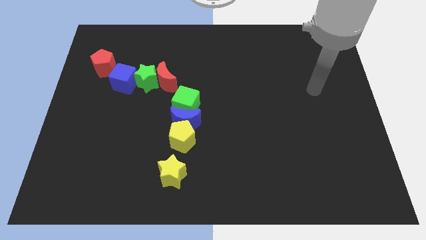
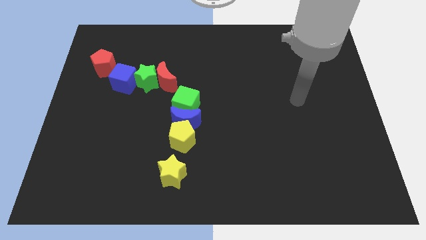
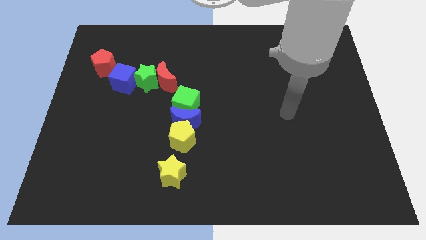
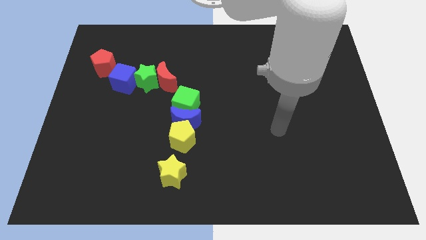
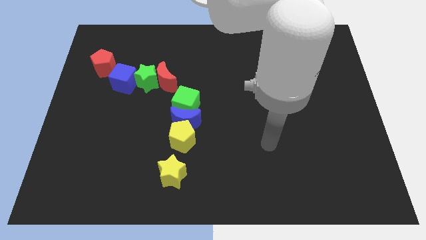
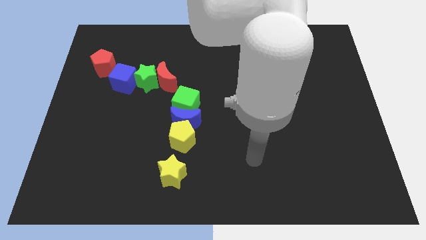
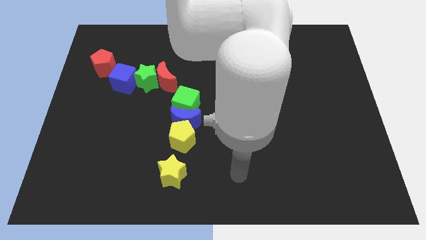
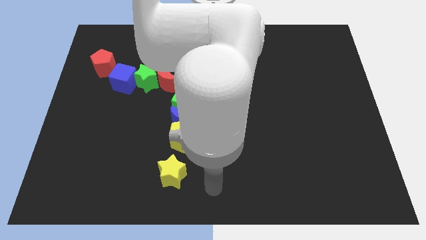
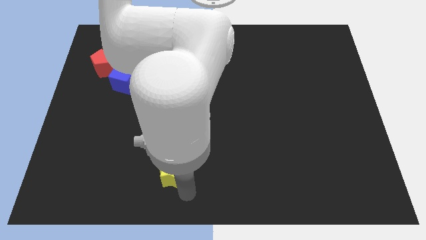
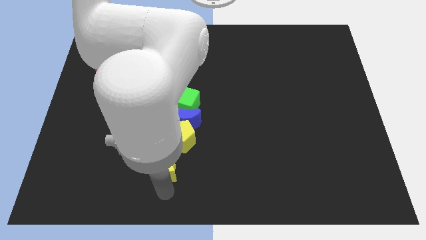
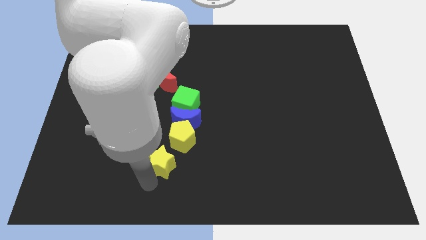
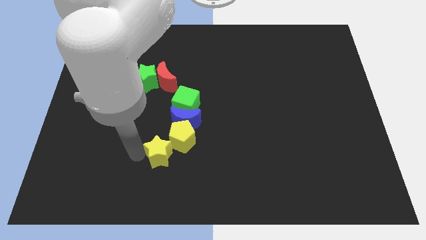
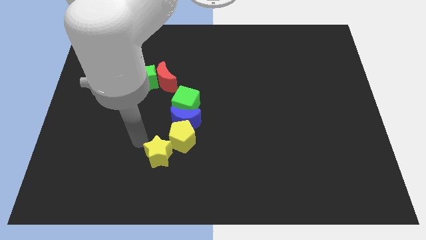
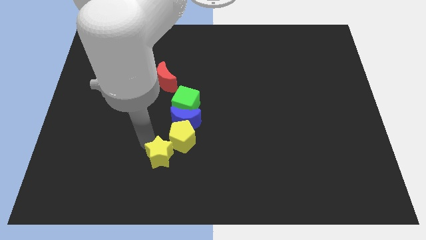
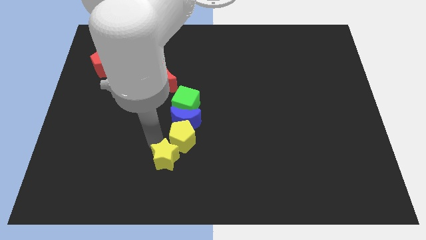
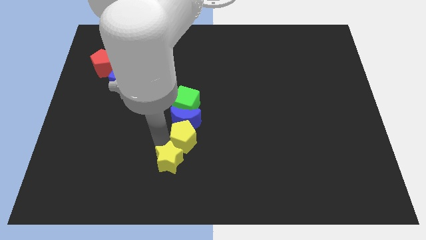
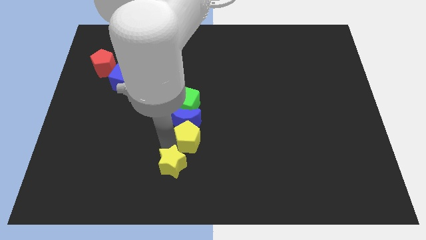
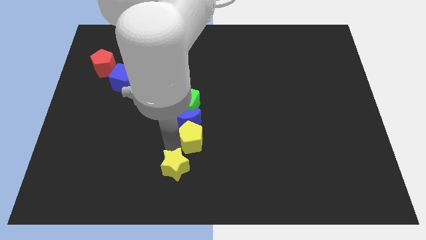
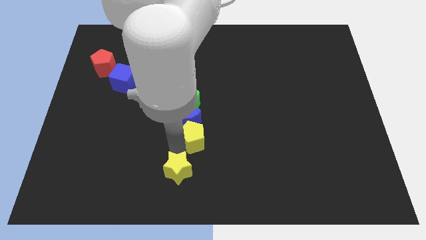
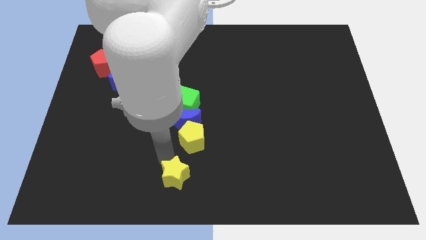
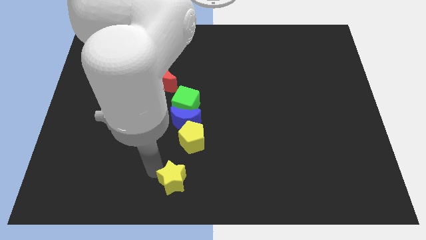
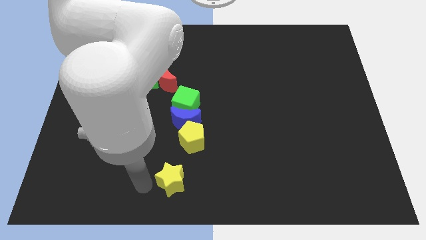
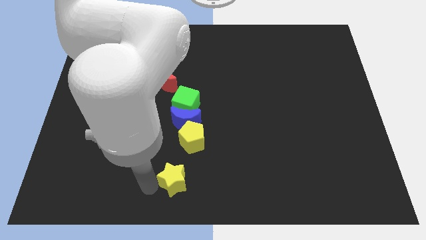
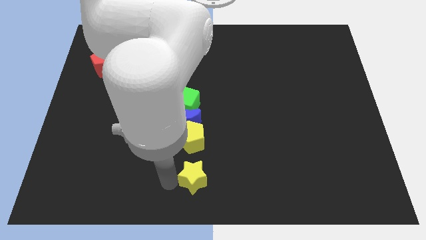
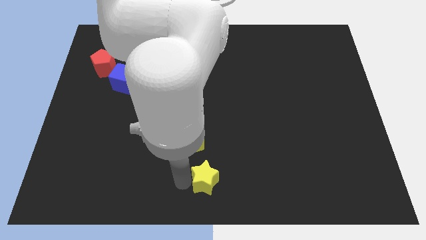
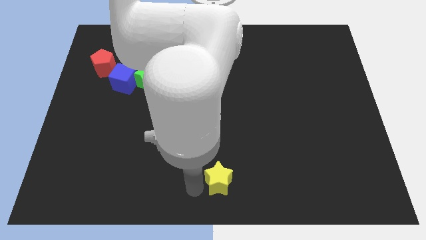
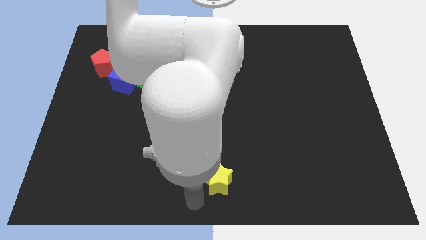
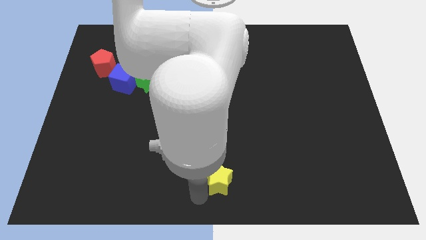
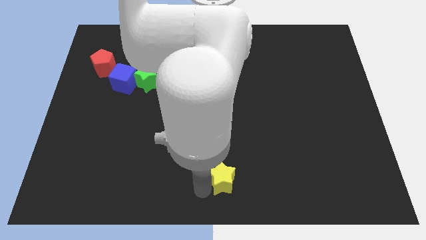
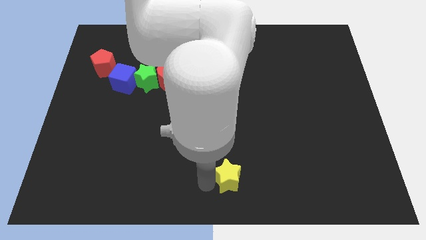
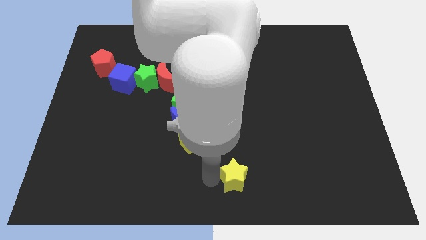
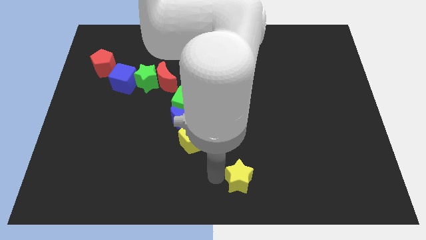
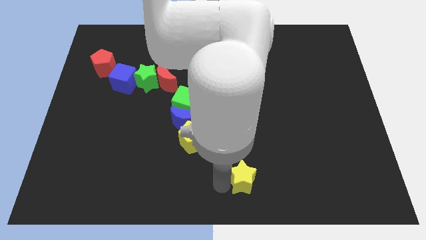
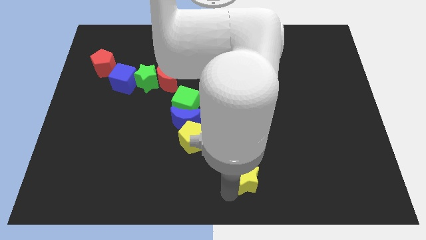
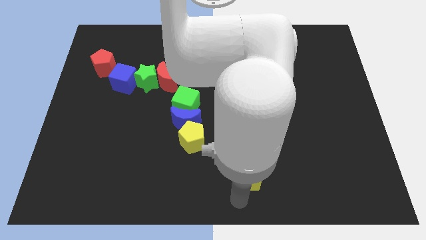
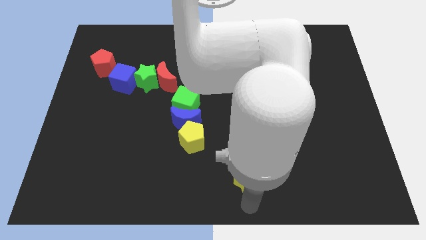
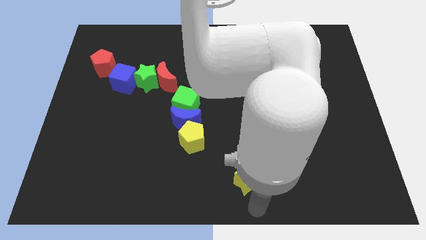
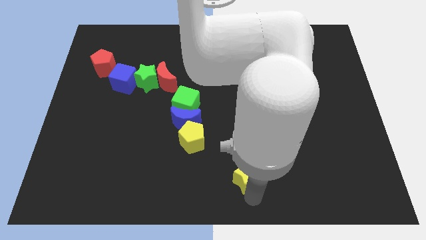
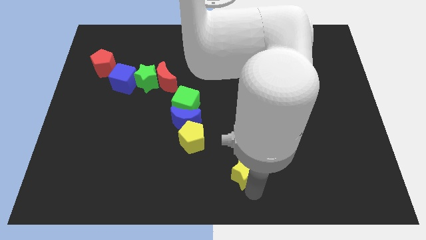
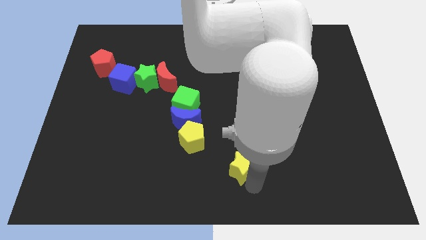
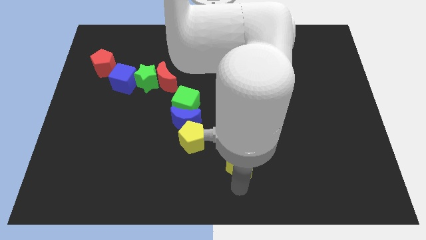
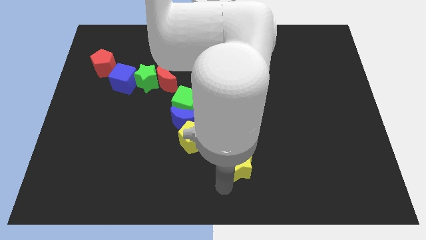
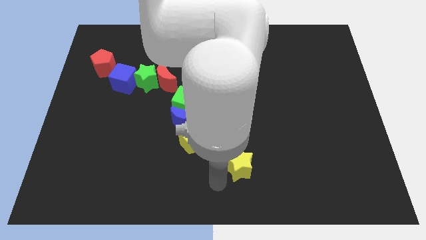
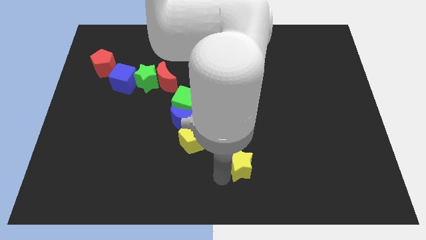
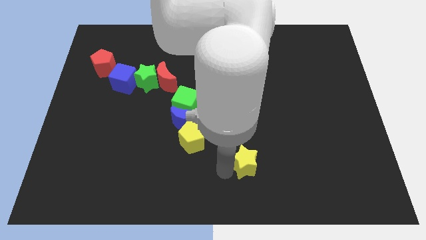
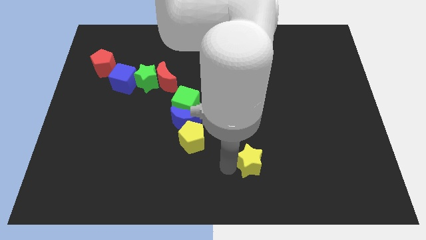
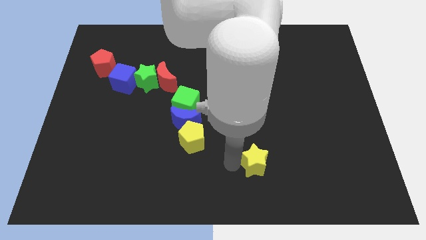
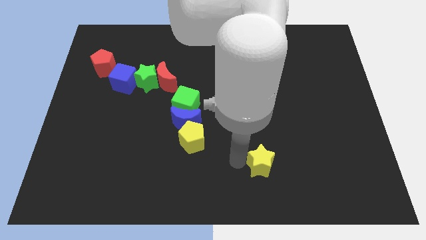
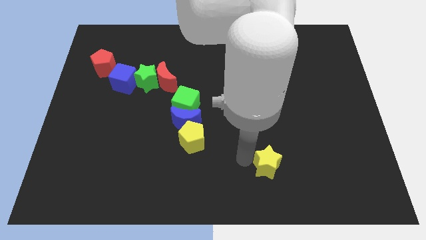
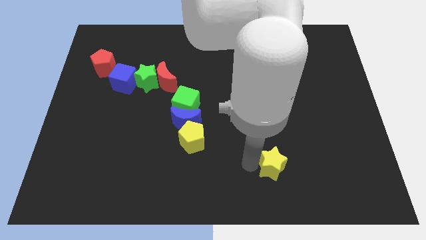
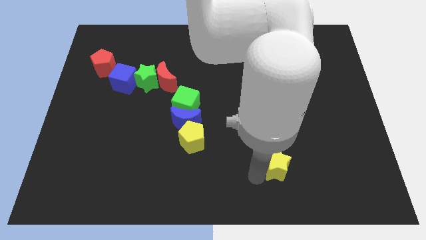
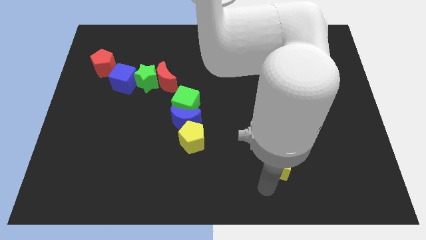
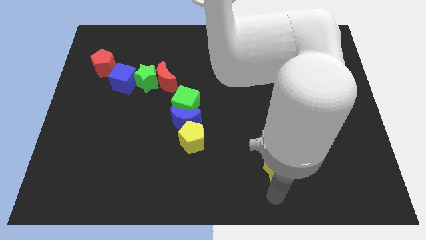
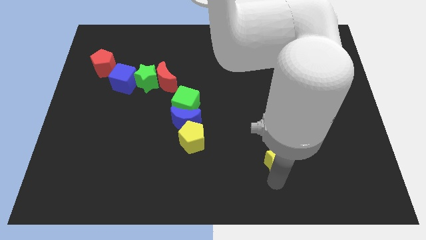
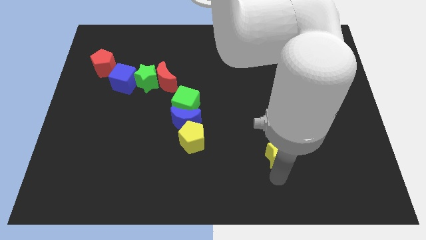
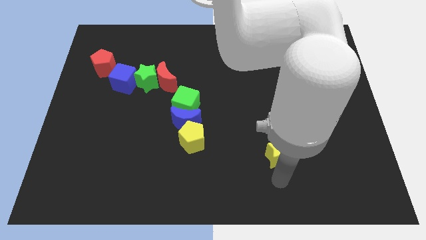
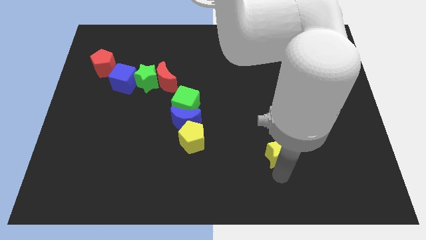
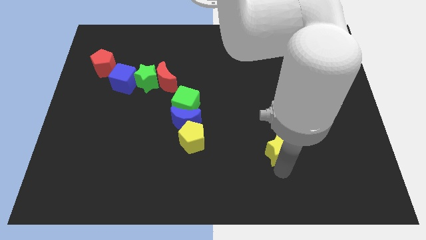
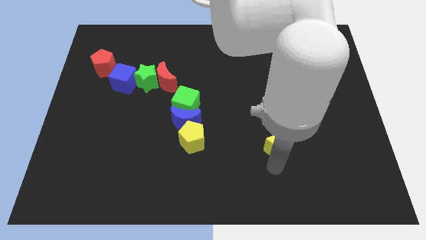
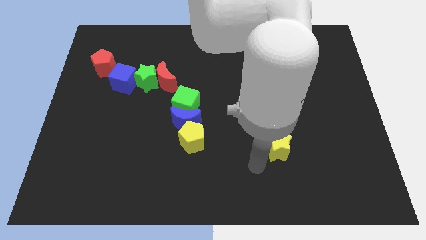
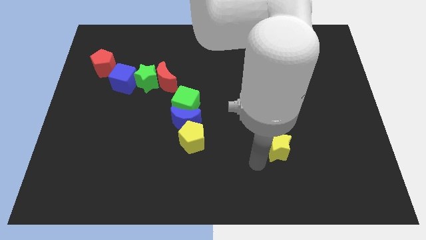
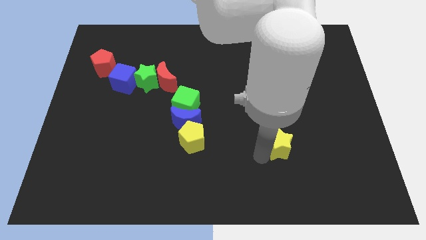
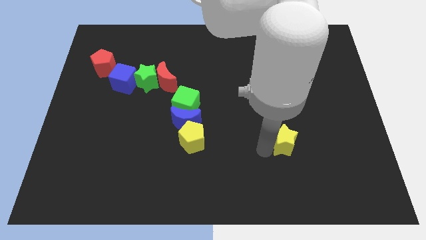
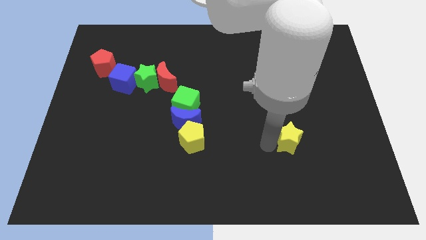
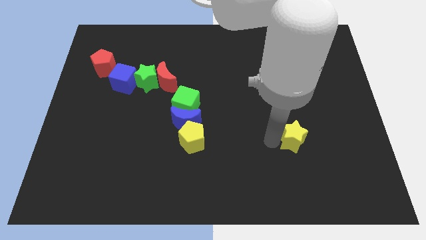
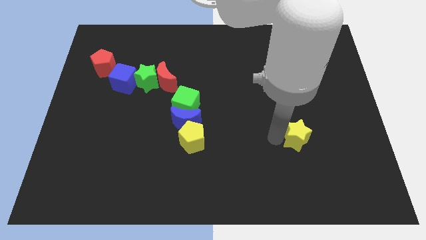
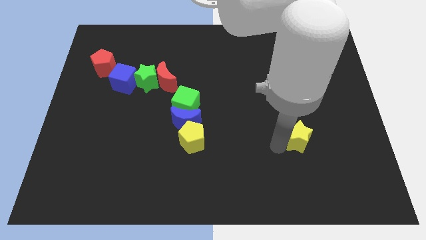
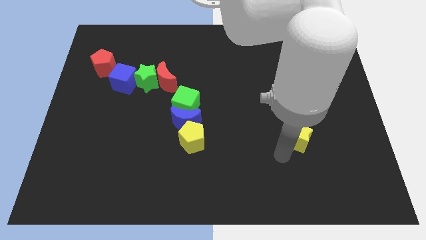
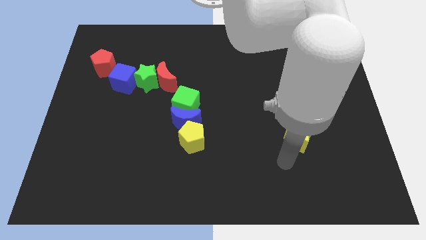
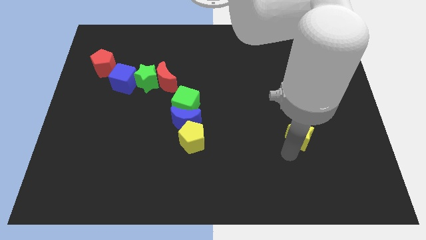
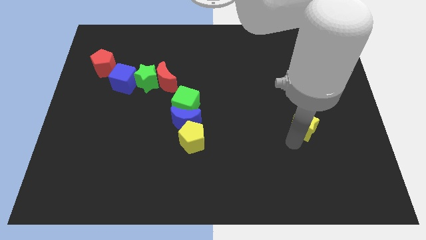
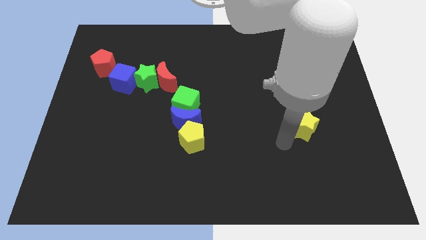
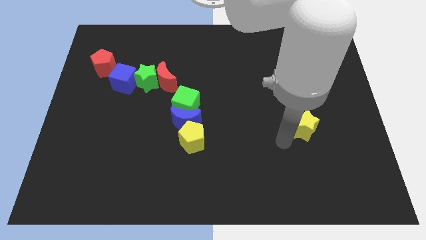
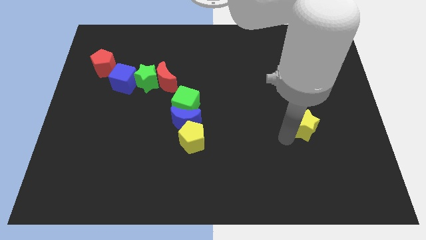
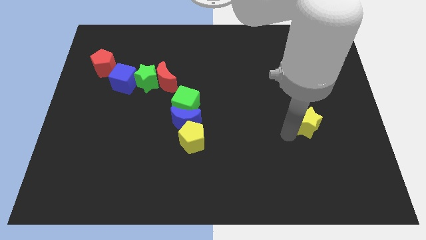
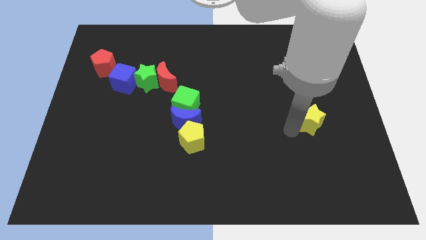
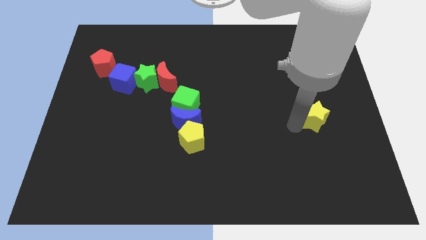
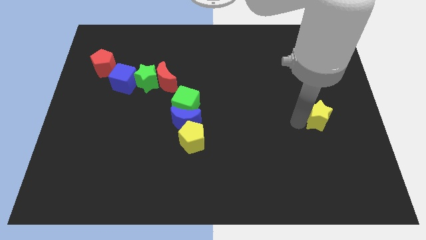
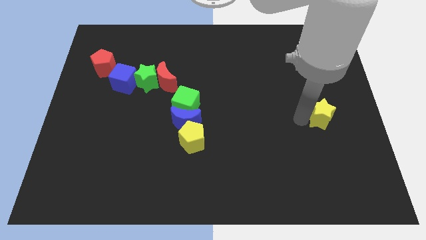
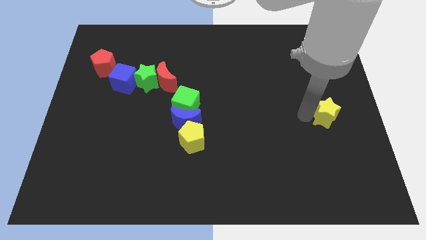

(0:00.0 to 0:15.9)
move the yellow star to the right side of the board
